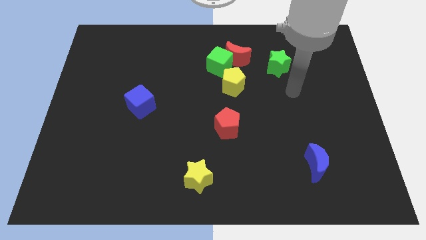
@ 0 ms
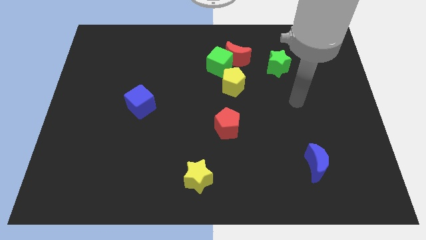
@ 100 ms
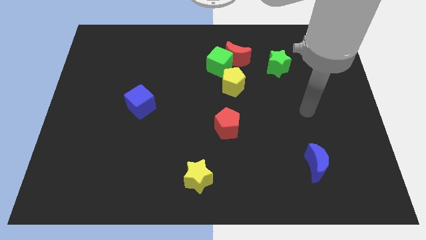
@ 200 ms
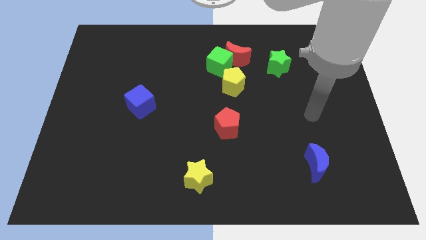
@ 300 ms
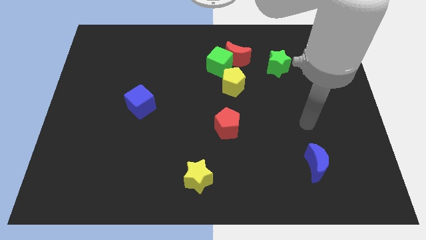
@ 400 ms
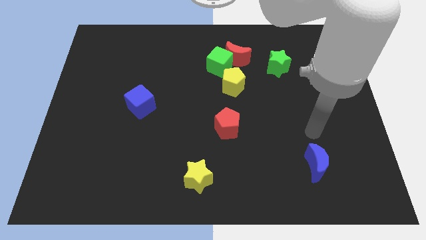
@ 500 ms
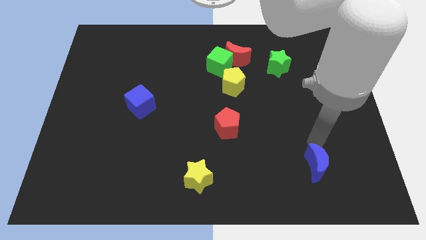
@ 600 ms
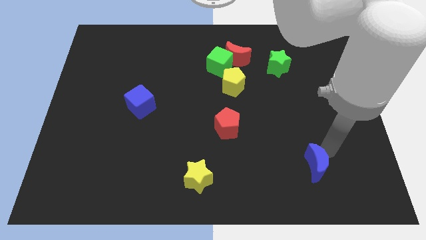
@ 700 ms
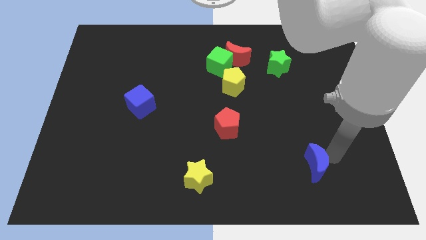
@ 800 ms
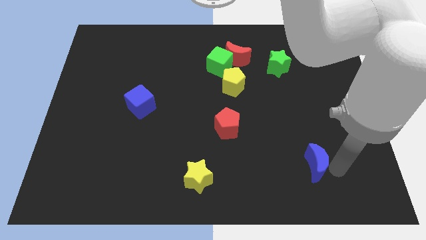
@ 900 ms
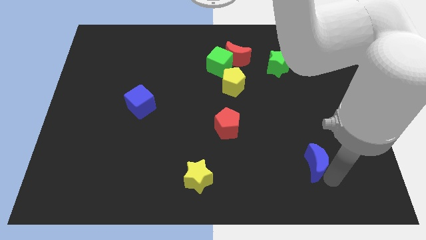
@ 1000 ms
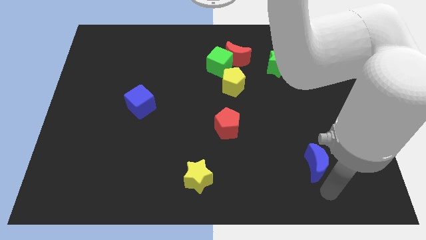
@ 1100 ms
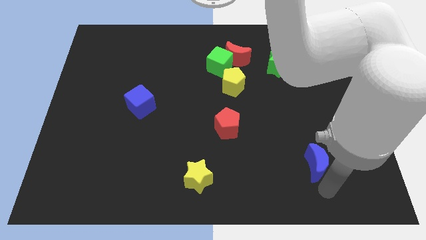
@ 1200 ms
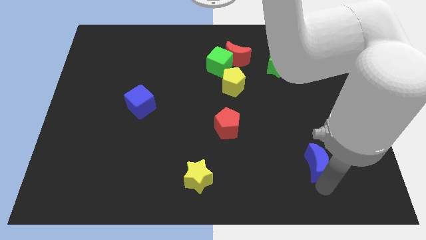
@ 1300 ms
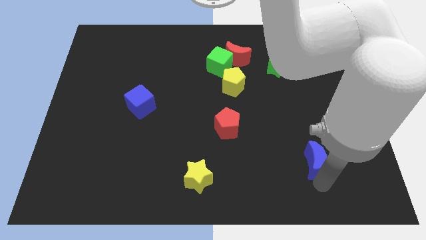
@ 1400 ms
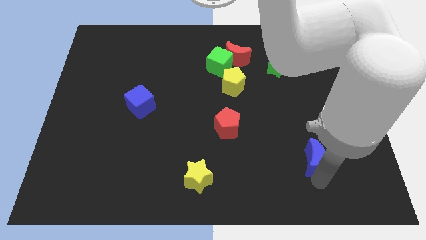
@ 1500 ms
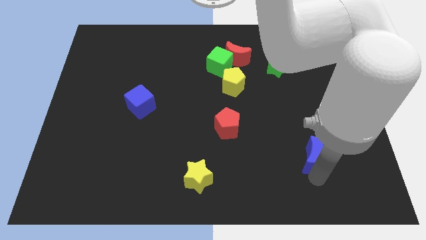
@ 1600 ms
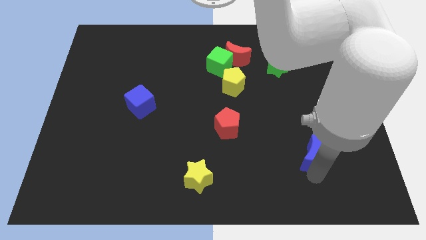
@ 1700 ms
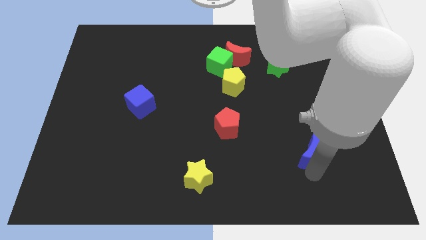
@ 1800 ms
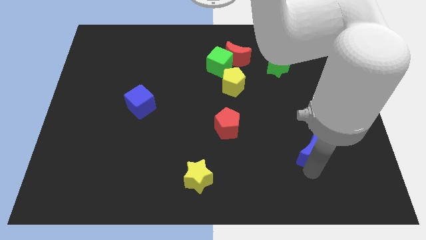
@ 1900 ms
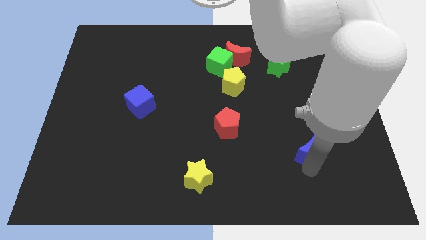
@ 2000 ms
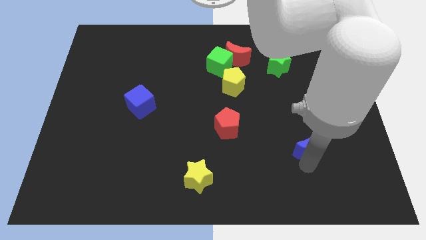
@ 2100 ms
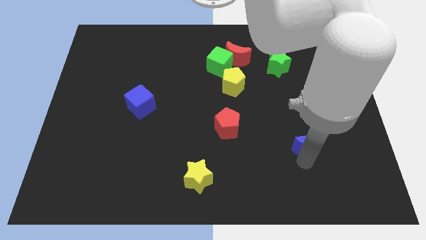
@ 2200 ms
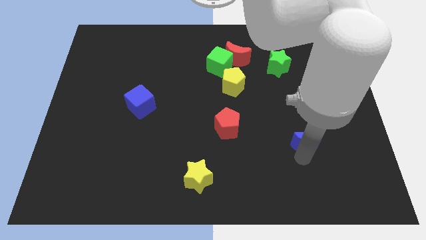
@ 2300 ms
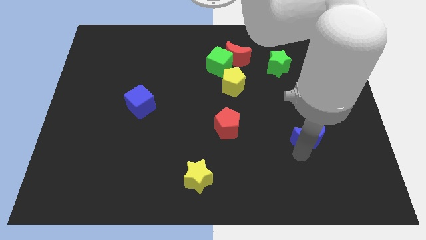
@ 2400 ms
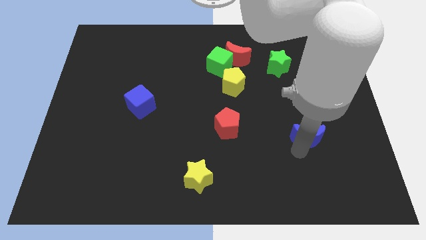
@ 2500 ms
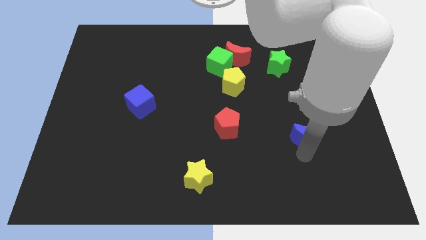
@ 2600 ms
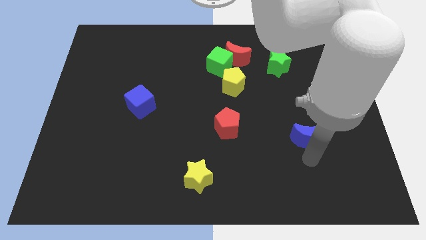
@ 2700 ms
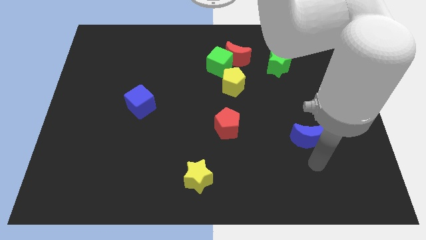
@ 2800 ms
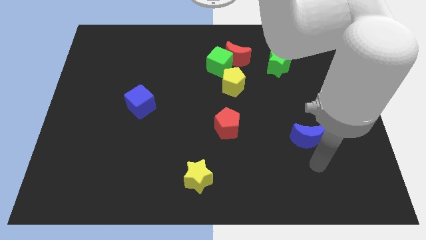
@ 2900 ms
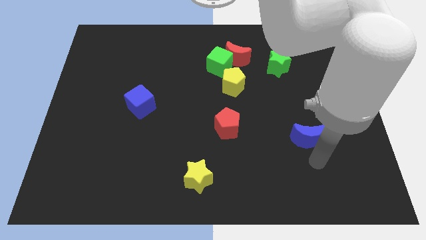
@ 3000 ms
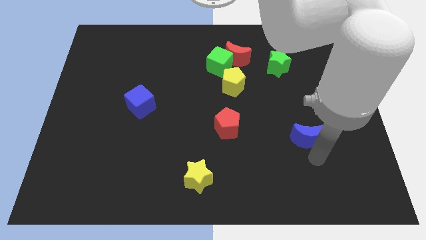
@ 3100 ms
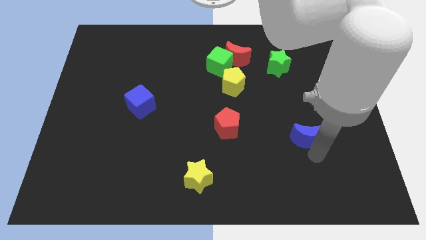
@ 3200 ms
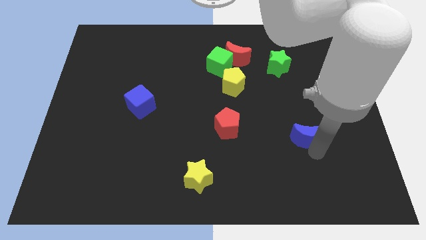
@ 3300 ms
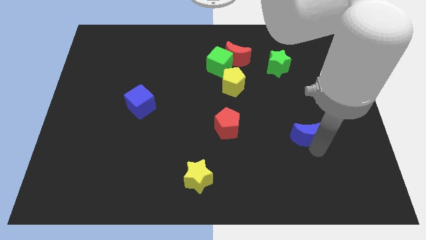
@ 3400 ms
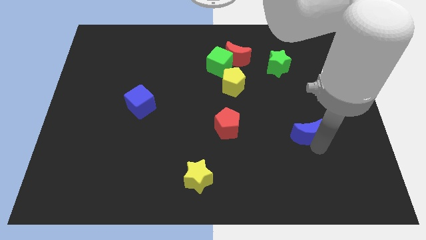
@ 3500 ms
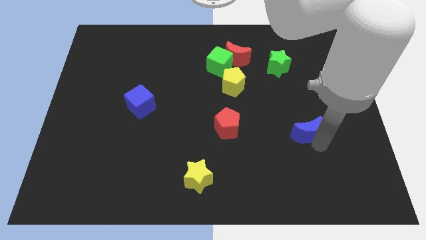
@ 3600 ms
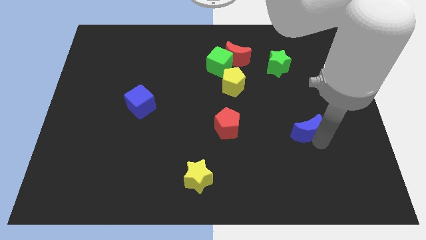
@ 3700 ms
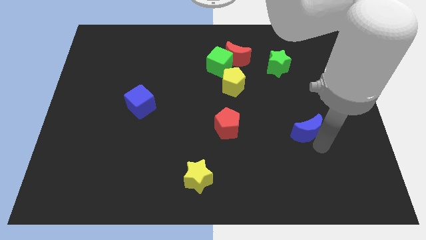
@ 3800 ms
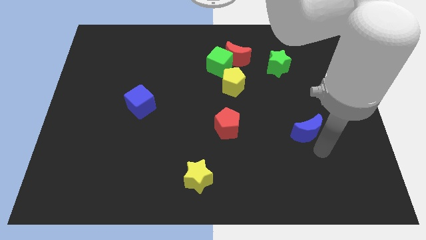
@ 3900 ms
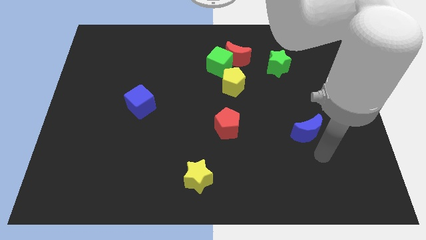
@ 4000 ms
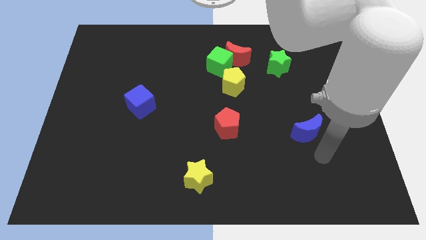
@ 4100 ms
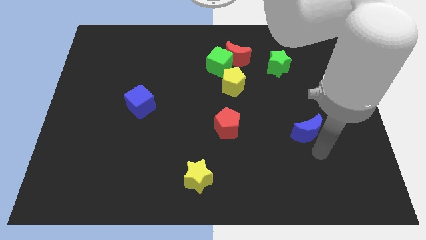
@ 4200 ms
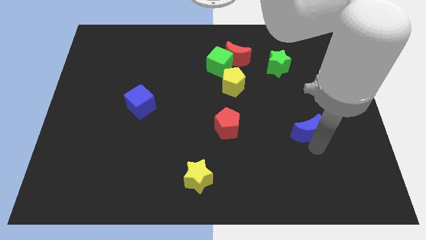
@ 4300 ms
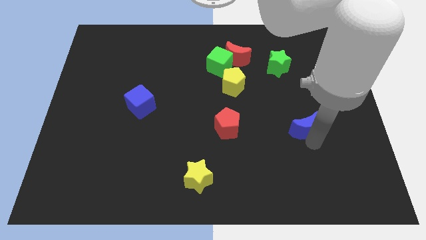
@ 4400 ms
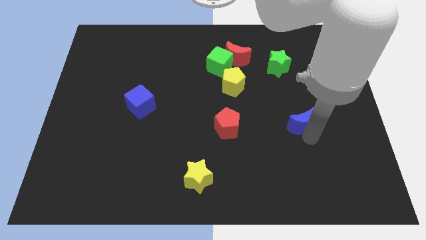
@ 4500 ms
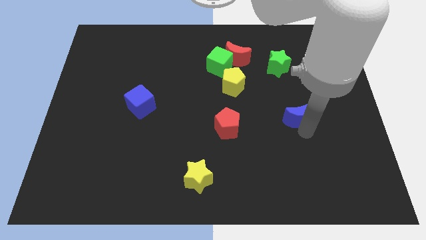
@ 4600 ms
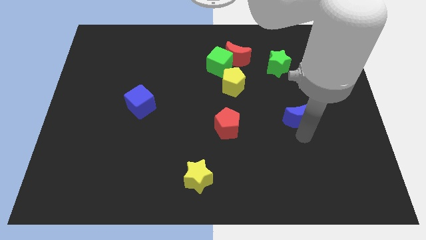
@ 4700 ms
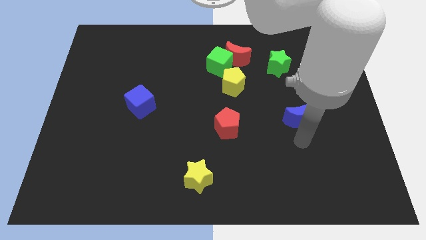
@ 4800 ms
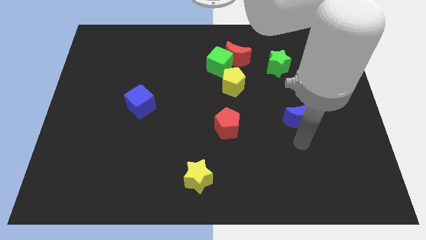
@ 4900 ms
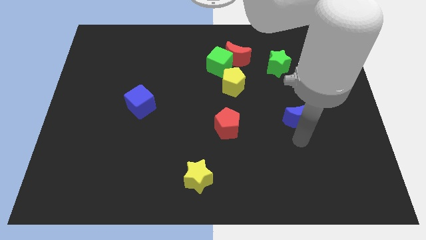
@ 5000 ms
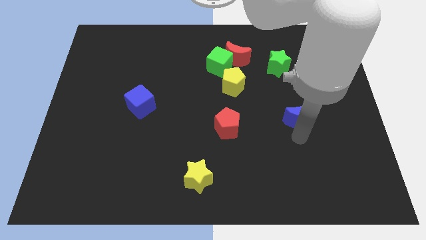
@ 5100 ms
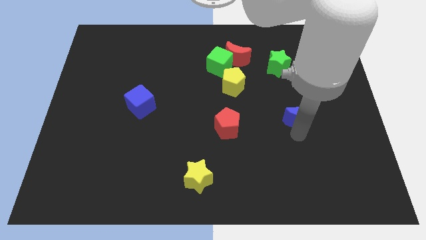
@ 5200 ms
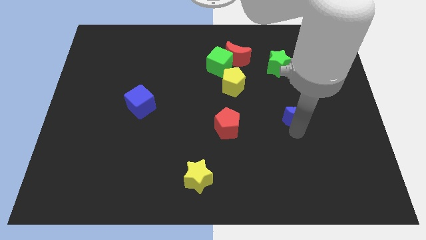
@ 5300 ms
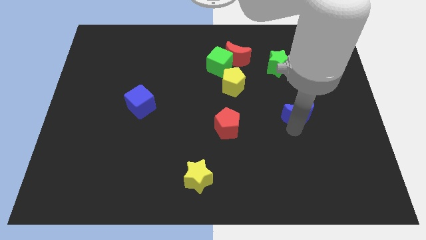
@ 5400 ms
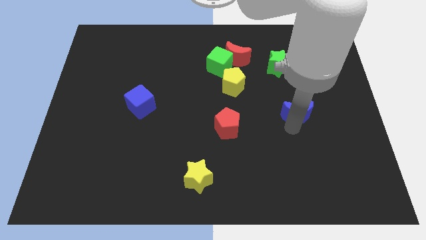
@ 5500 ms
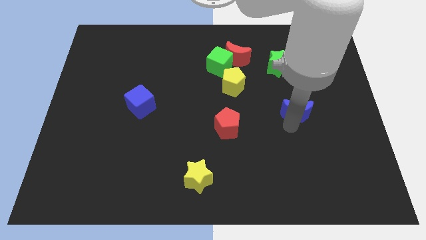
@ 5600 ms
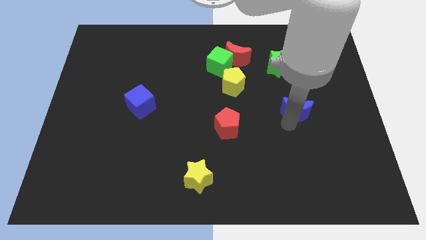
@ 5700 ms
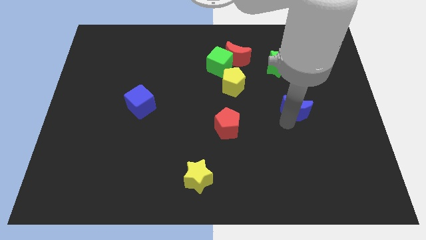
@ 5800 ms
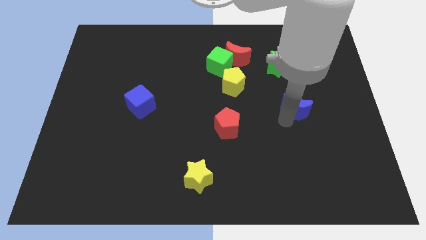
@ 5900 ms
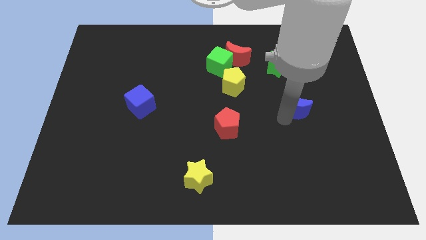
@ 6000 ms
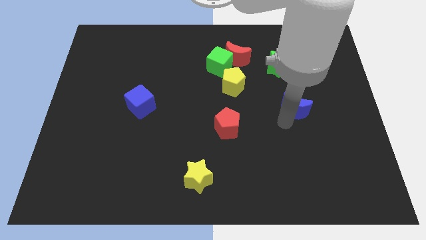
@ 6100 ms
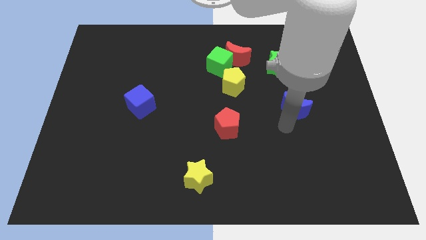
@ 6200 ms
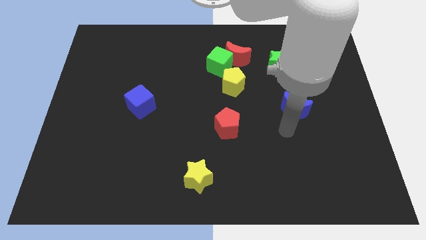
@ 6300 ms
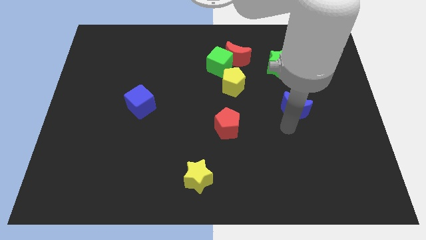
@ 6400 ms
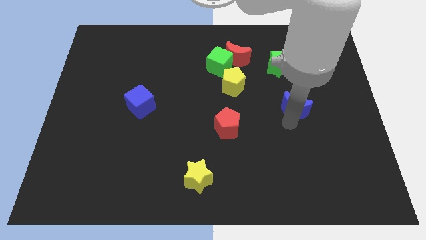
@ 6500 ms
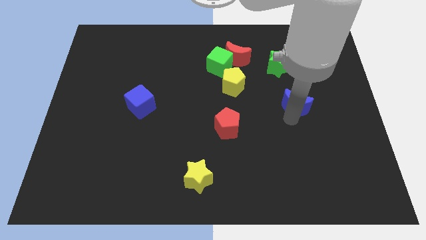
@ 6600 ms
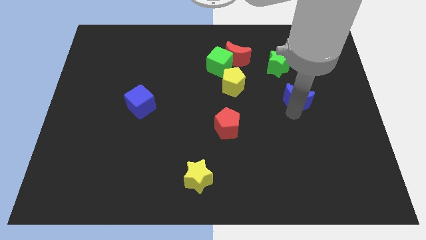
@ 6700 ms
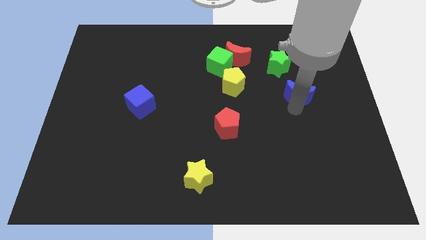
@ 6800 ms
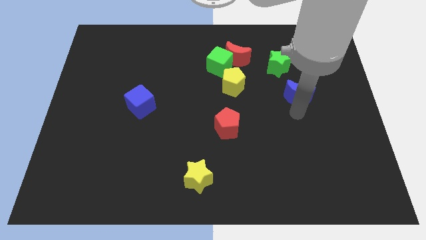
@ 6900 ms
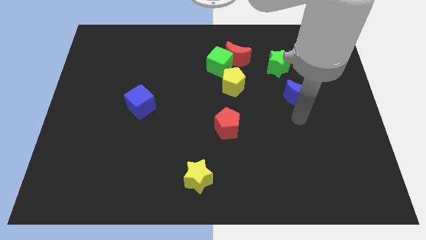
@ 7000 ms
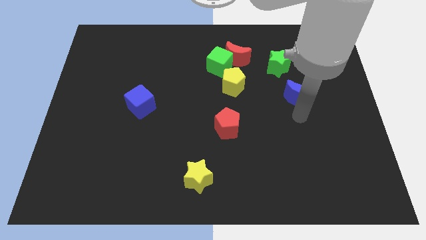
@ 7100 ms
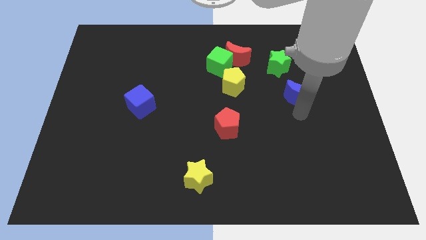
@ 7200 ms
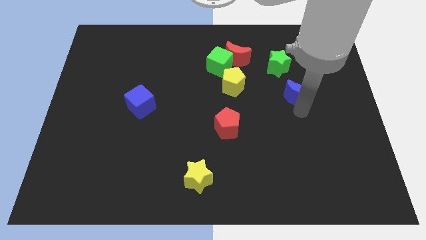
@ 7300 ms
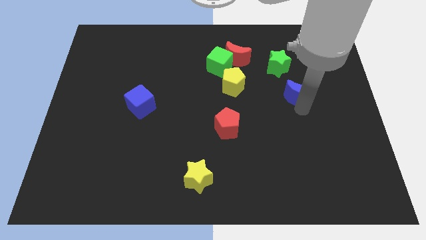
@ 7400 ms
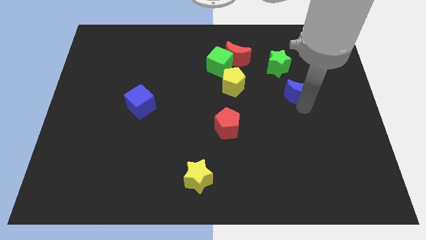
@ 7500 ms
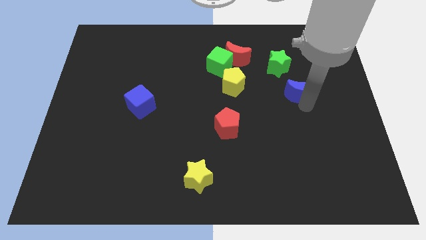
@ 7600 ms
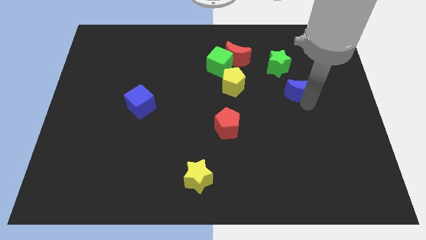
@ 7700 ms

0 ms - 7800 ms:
push the blue moon up
